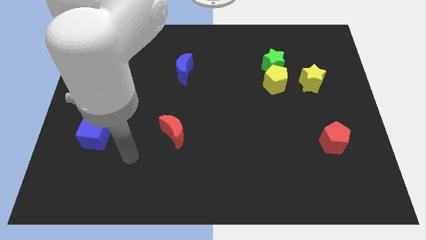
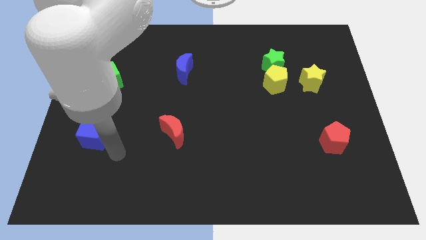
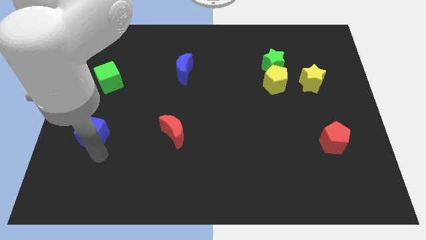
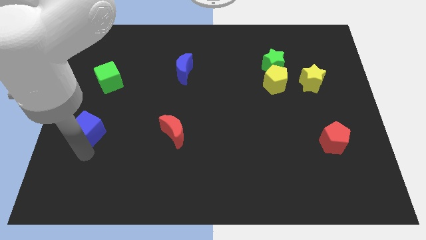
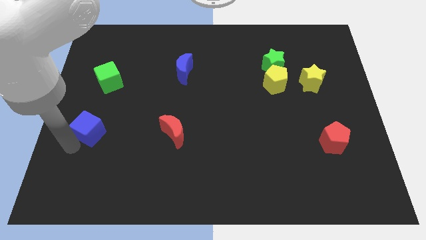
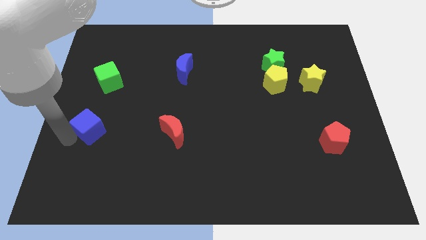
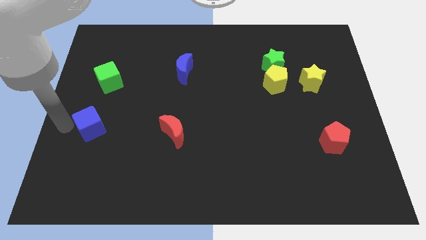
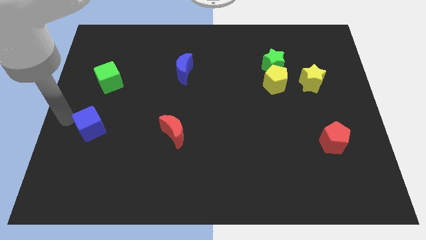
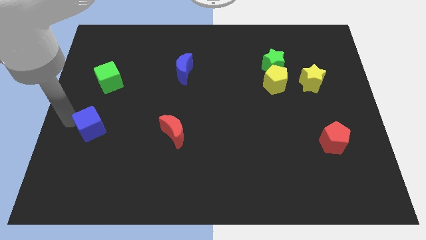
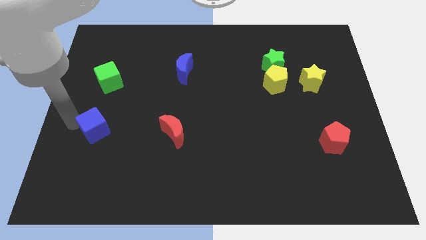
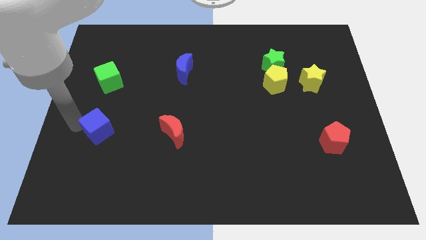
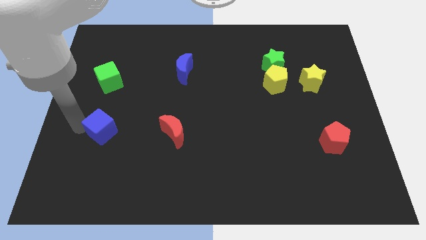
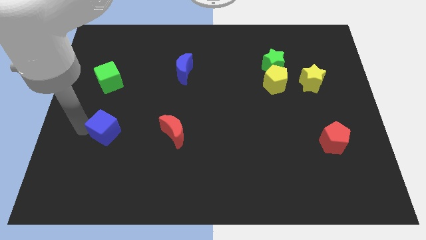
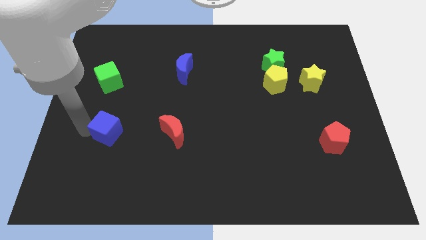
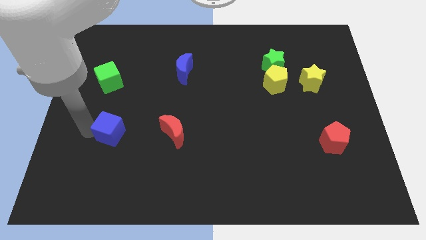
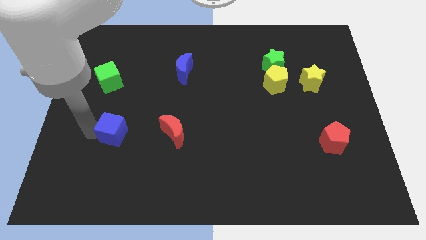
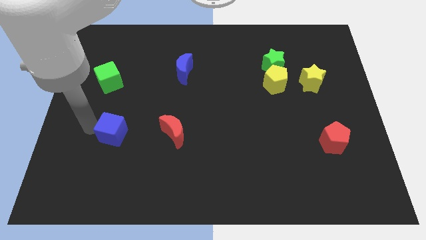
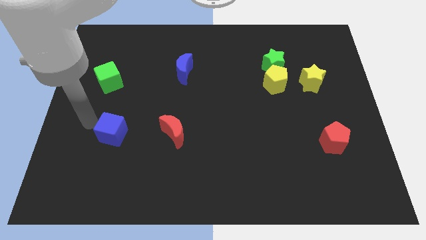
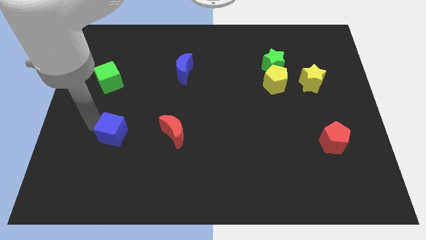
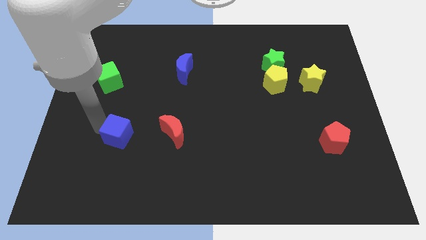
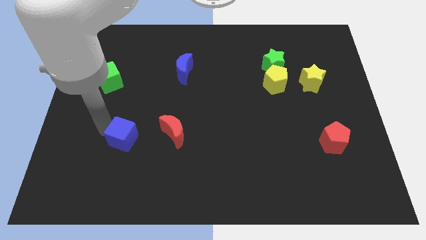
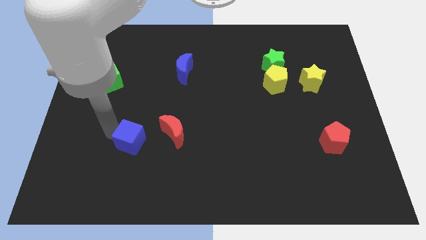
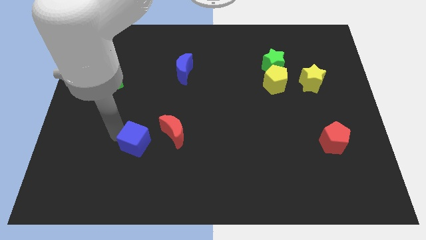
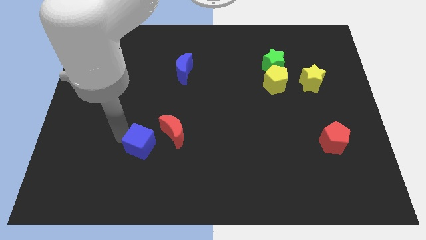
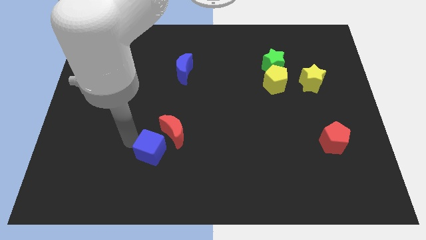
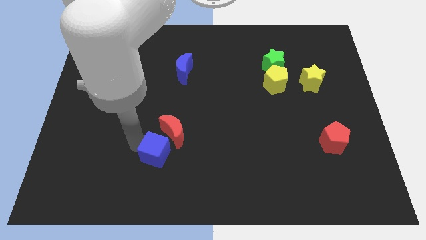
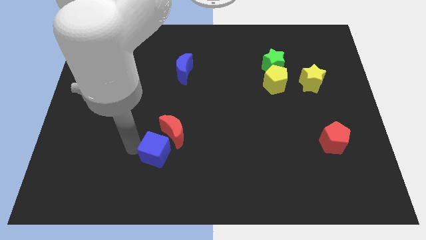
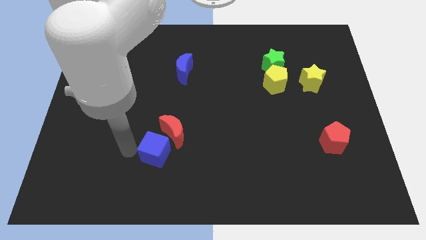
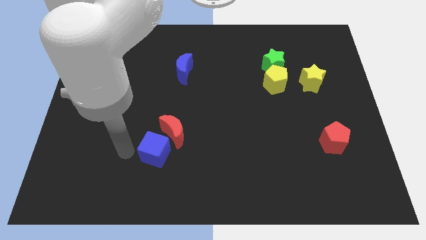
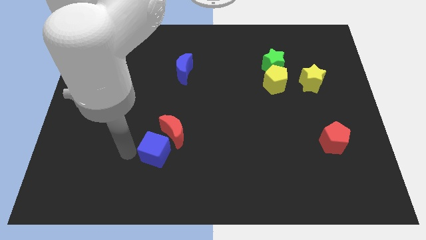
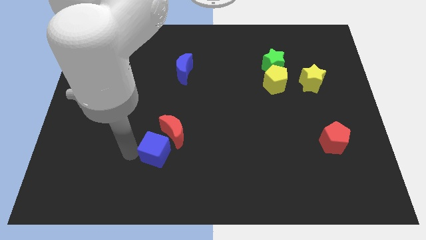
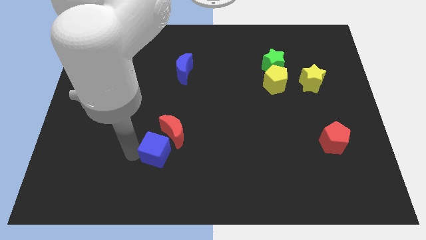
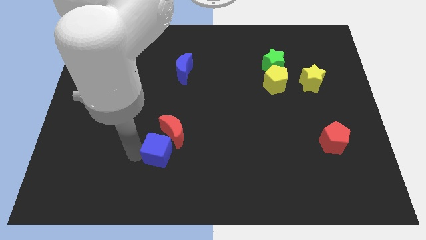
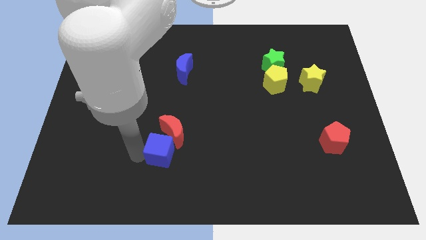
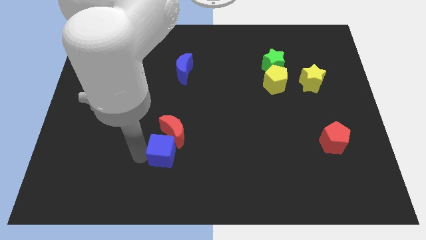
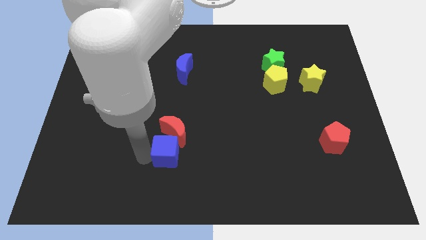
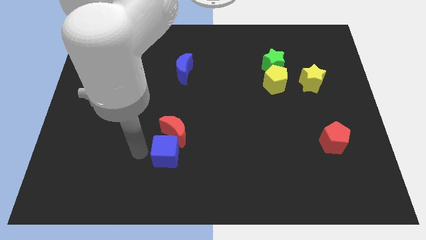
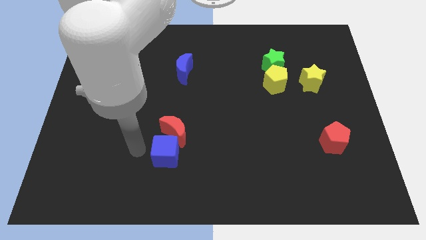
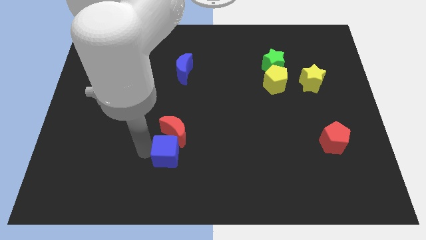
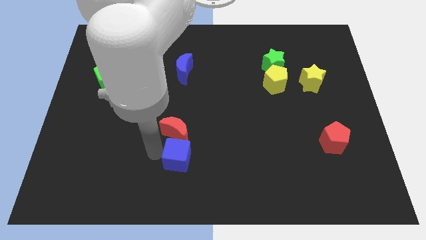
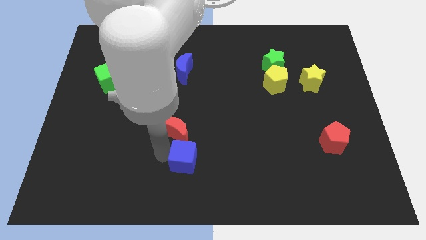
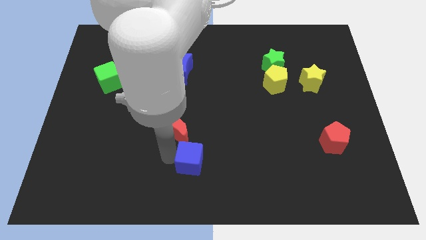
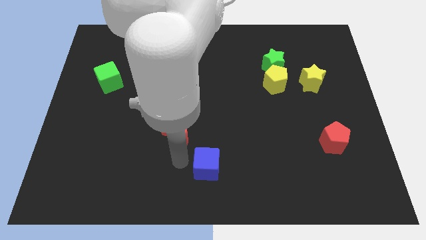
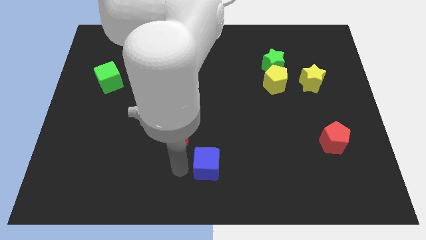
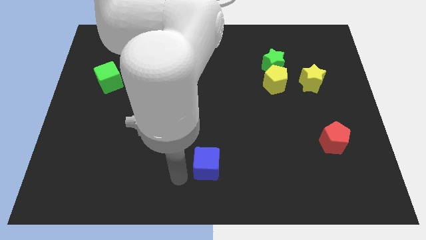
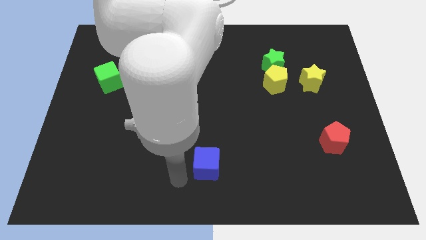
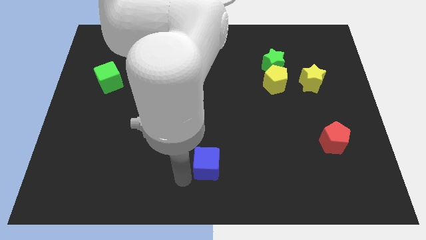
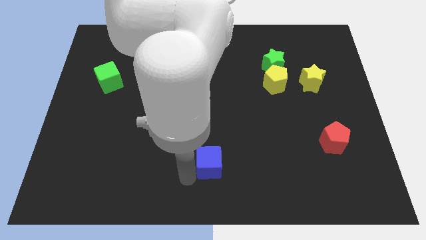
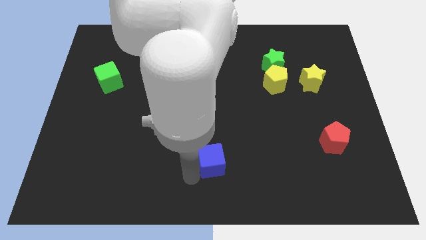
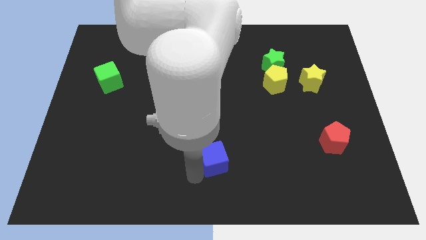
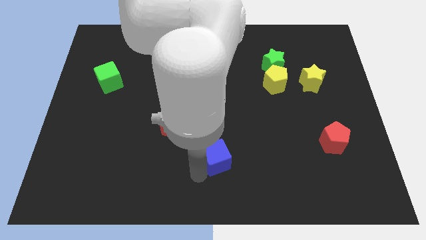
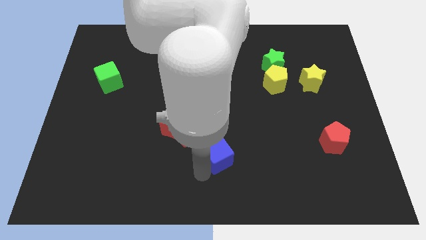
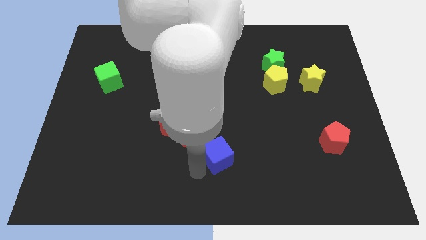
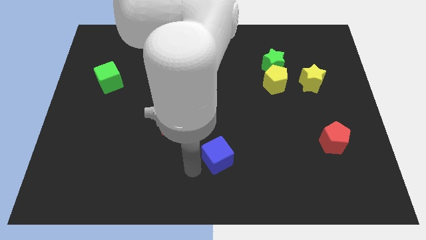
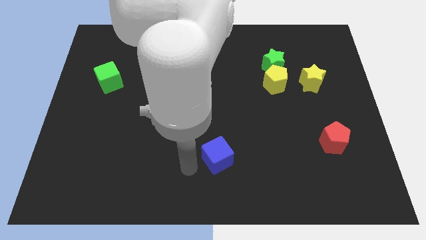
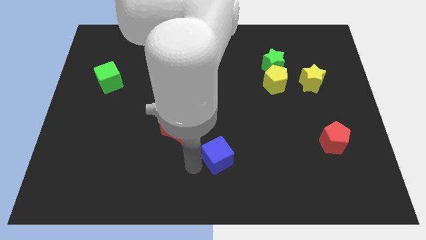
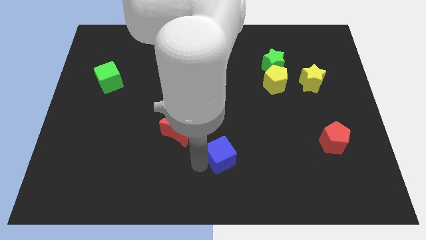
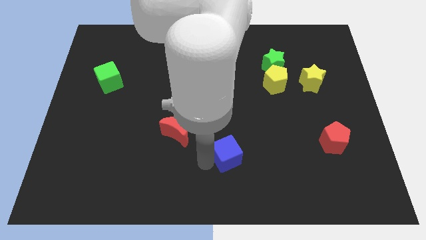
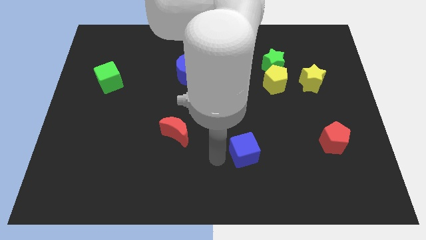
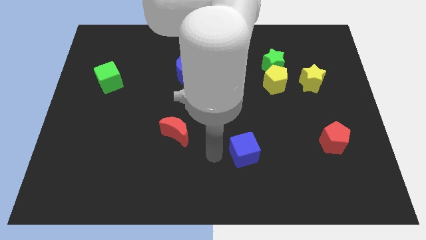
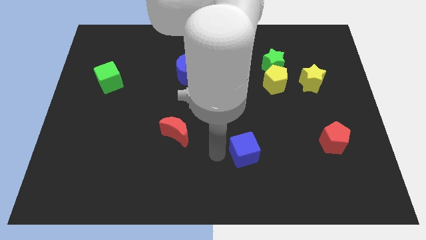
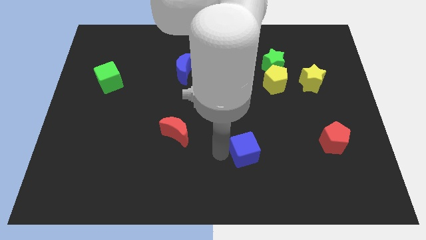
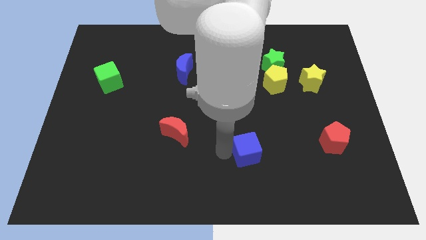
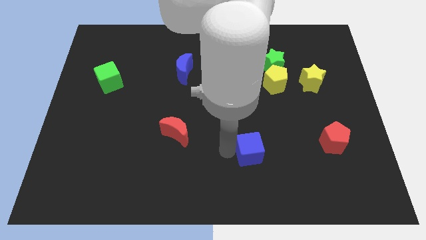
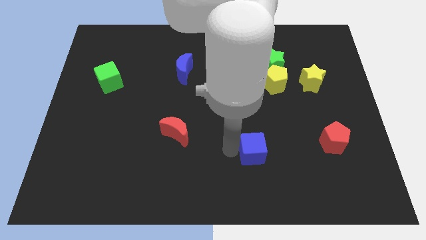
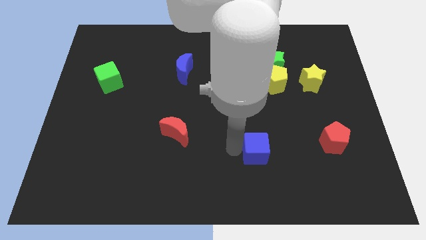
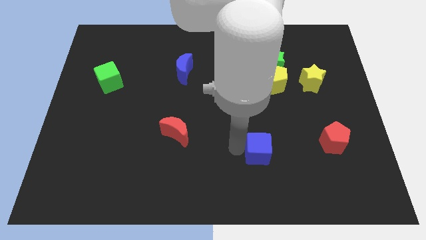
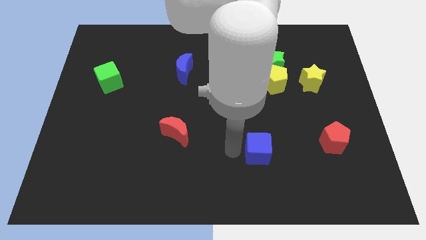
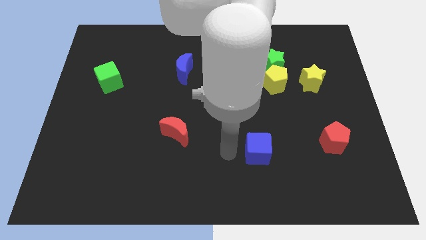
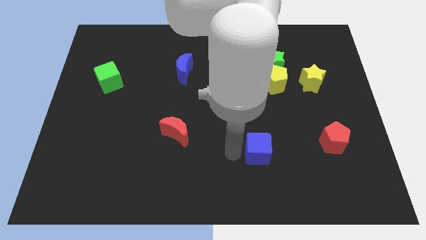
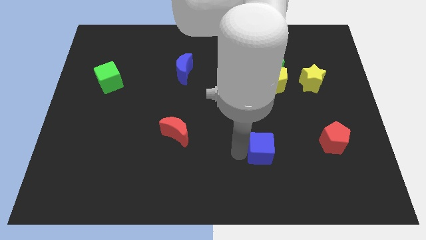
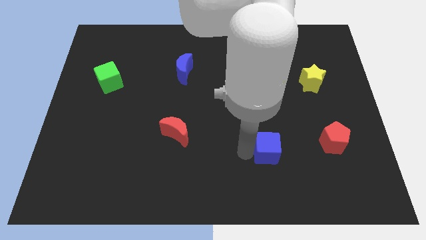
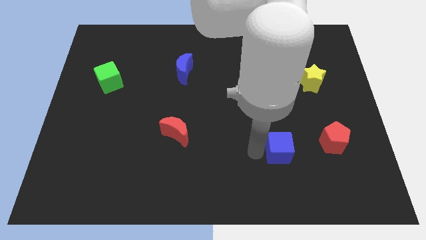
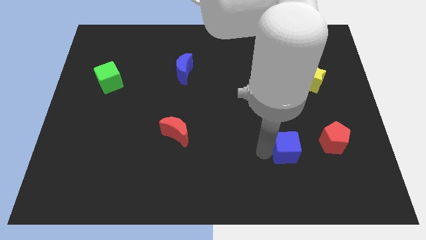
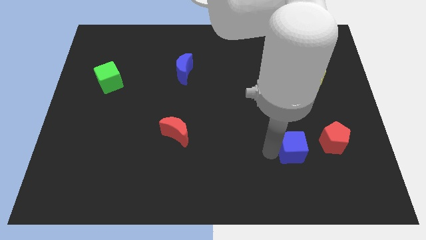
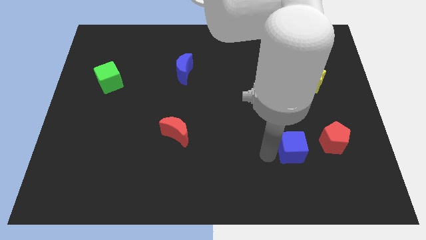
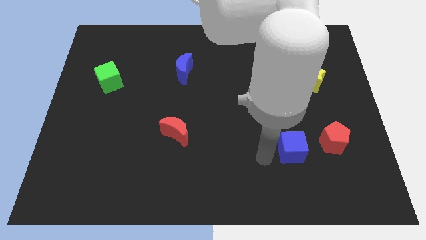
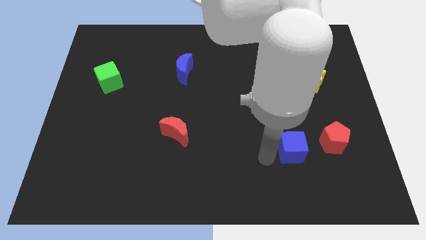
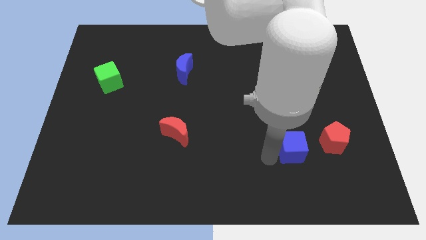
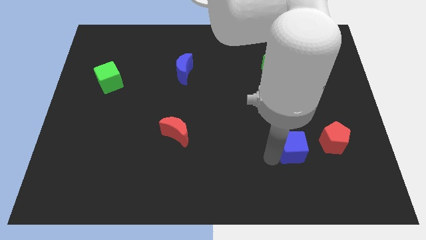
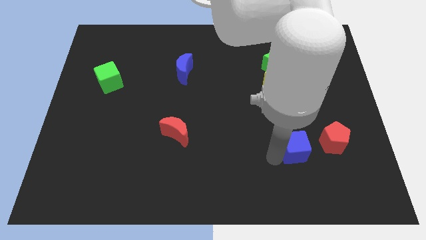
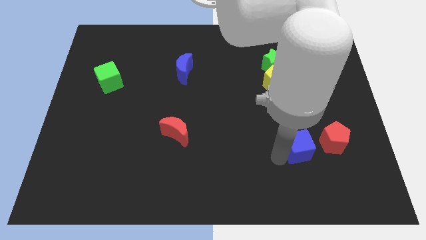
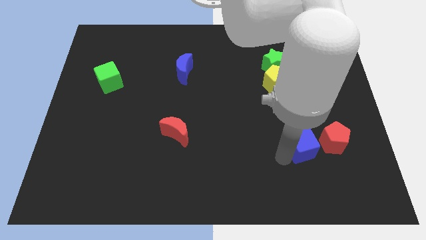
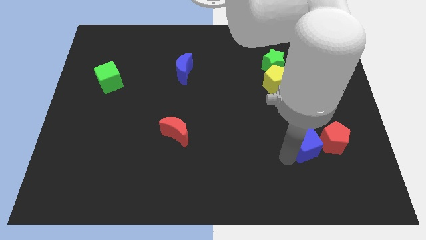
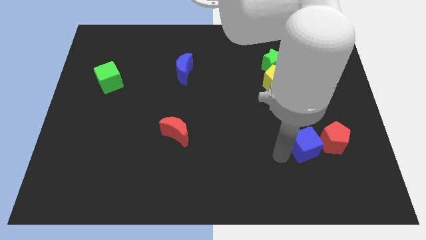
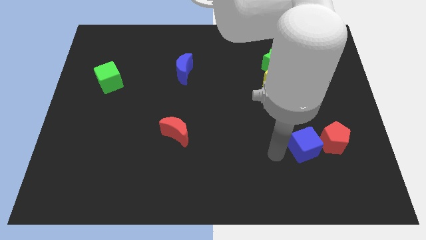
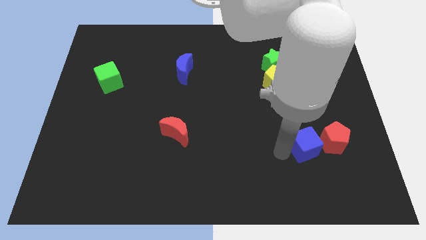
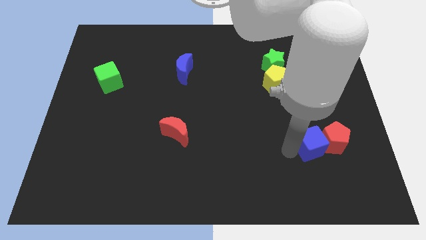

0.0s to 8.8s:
put the blue cube to the red pentagon
